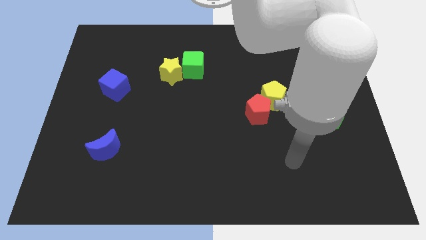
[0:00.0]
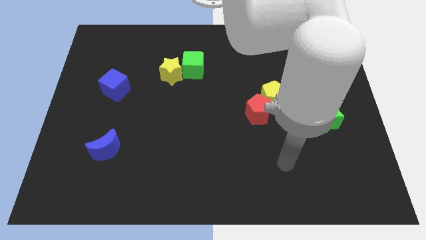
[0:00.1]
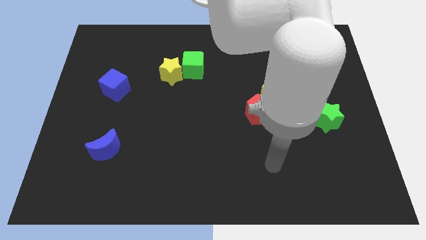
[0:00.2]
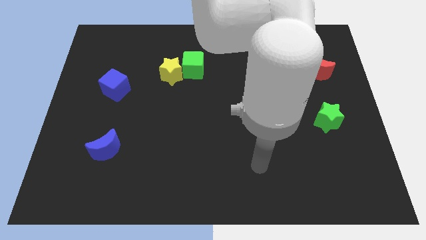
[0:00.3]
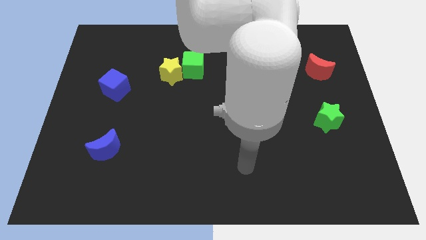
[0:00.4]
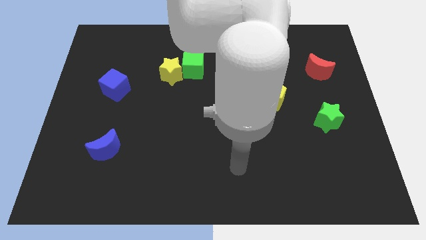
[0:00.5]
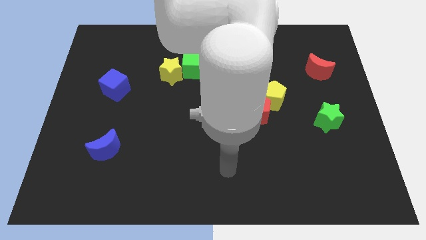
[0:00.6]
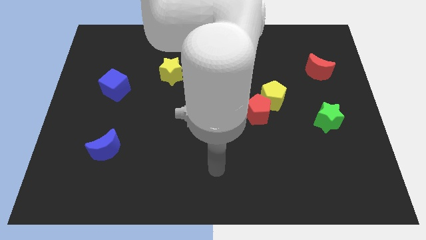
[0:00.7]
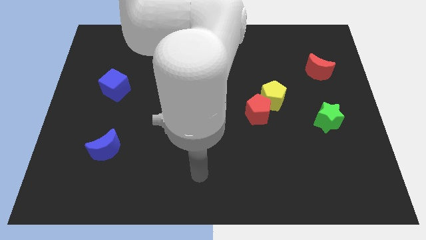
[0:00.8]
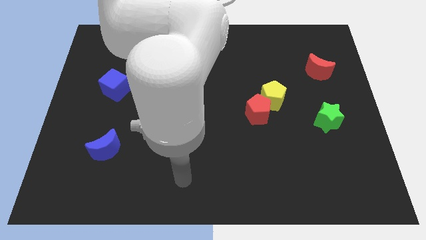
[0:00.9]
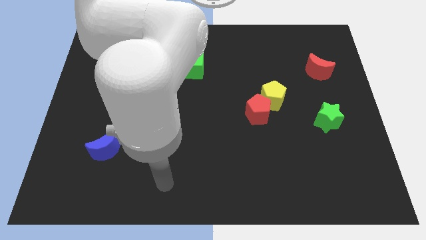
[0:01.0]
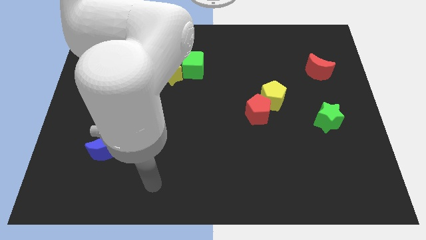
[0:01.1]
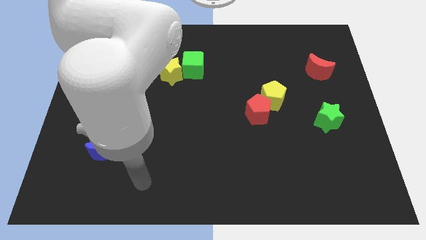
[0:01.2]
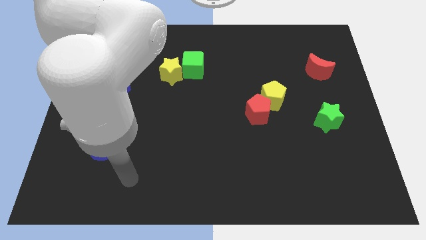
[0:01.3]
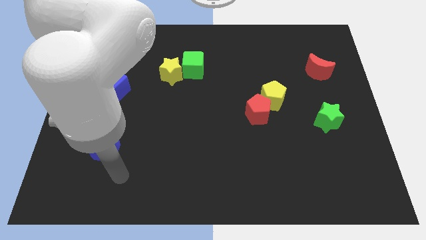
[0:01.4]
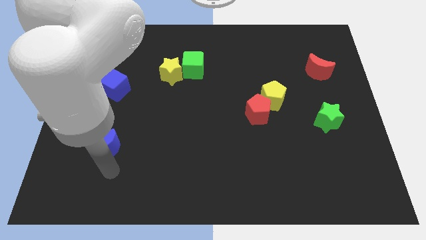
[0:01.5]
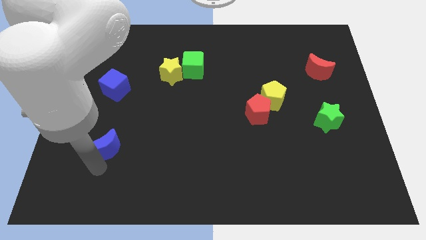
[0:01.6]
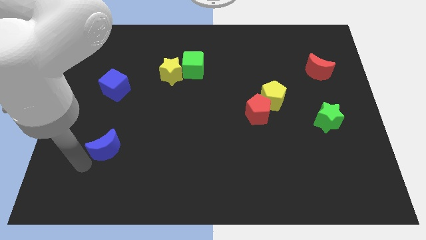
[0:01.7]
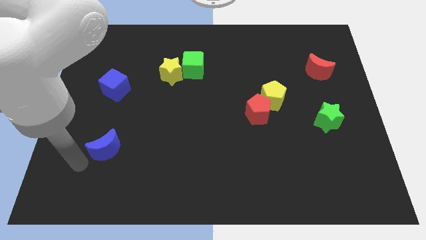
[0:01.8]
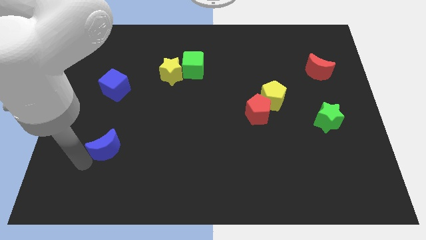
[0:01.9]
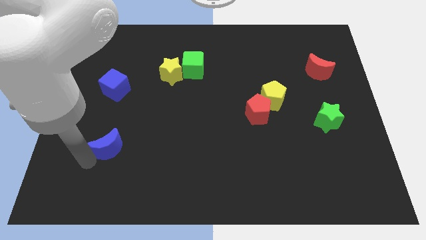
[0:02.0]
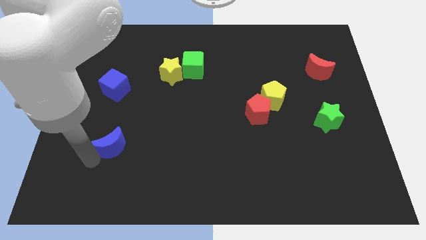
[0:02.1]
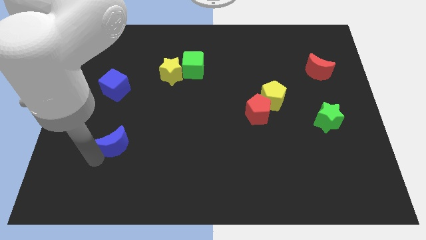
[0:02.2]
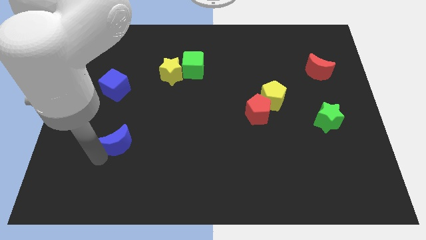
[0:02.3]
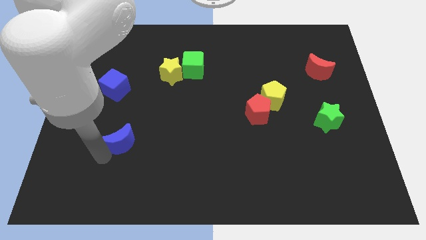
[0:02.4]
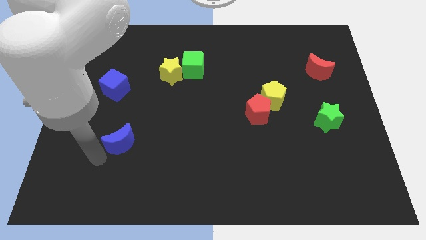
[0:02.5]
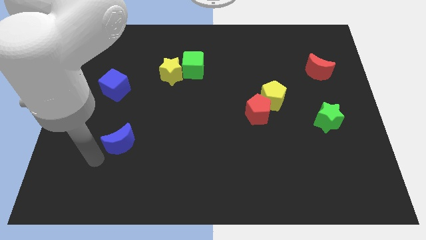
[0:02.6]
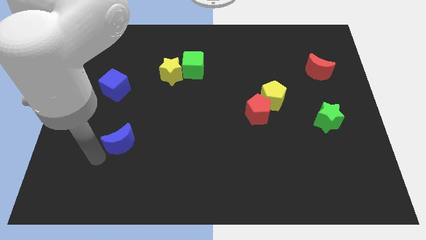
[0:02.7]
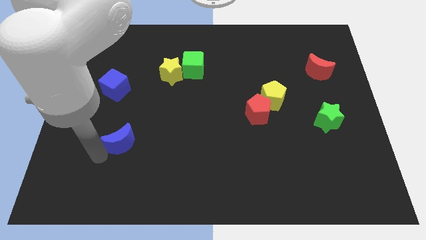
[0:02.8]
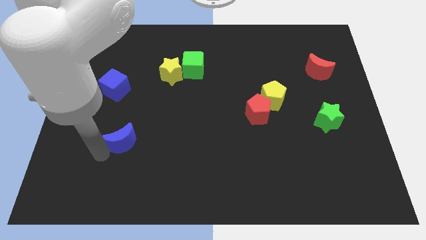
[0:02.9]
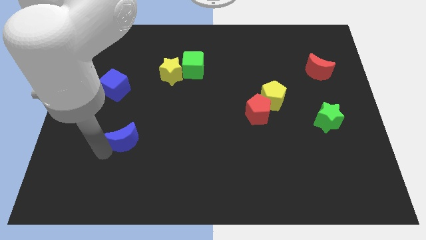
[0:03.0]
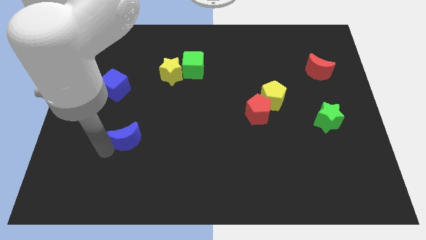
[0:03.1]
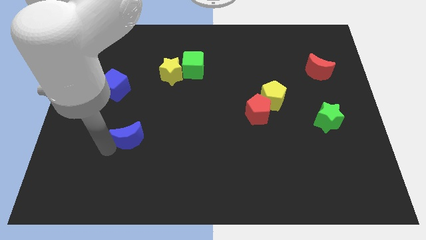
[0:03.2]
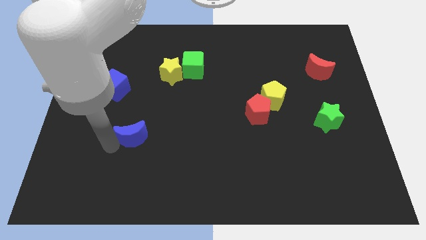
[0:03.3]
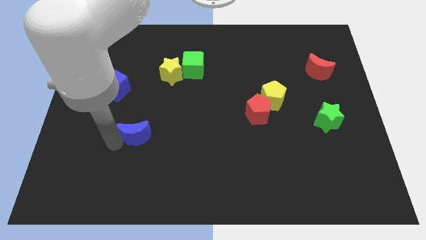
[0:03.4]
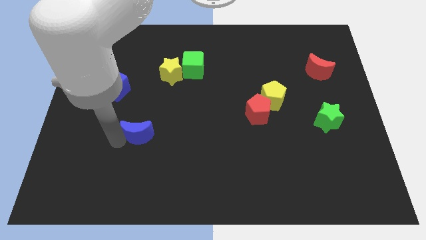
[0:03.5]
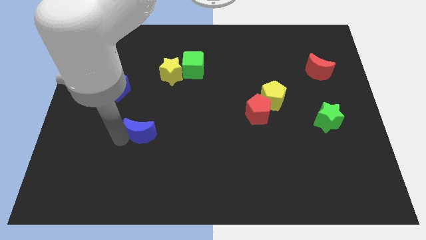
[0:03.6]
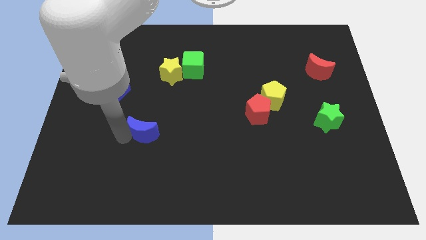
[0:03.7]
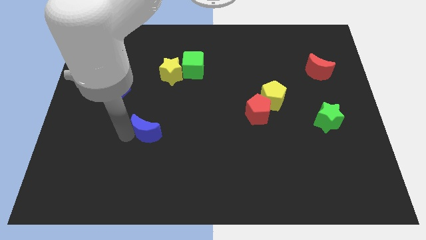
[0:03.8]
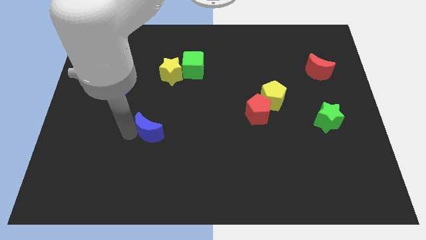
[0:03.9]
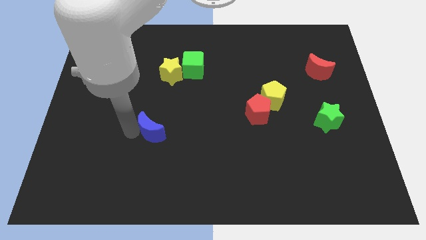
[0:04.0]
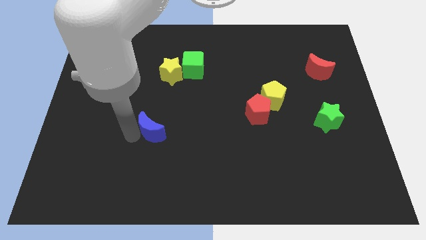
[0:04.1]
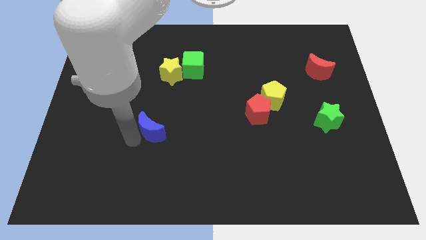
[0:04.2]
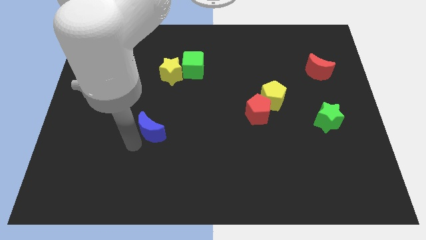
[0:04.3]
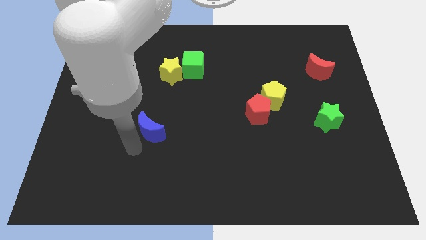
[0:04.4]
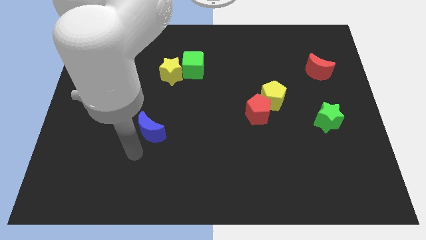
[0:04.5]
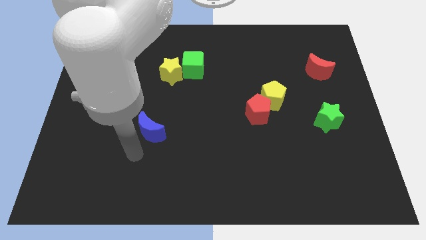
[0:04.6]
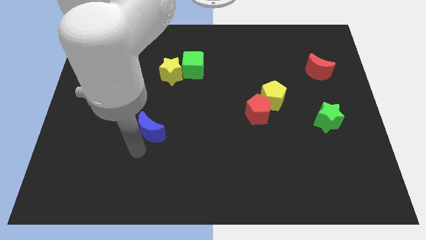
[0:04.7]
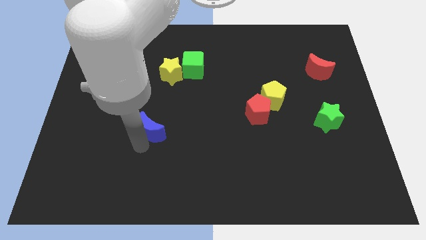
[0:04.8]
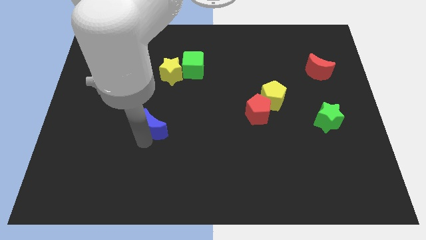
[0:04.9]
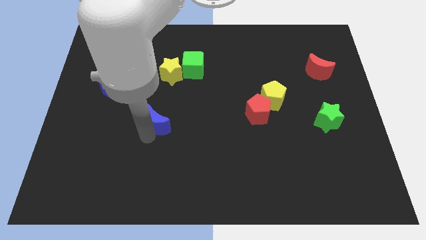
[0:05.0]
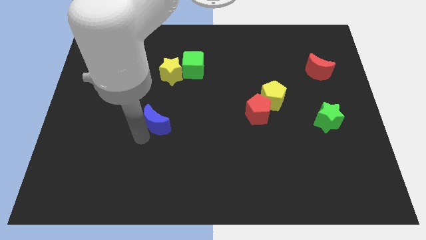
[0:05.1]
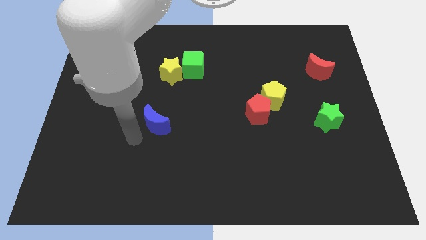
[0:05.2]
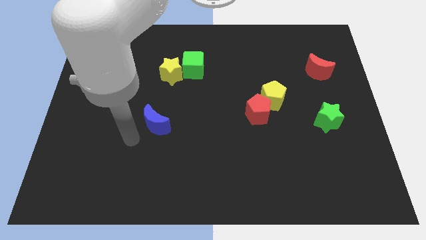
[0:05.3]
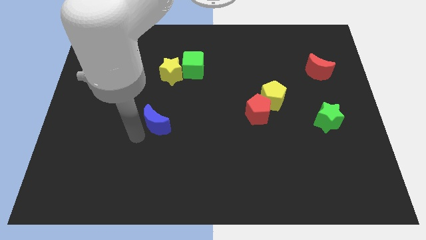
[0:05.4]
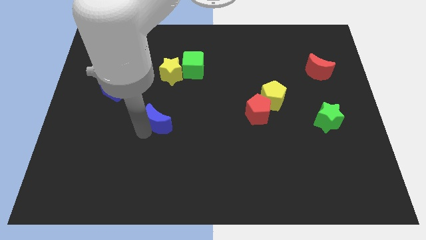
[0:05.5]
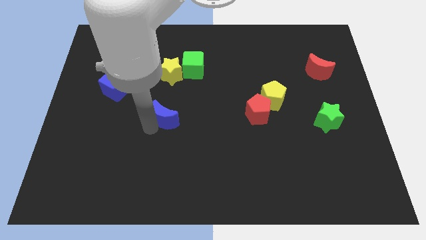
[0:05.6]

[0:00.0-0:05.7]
put the blue moon to the middle of the board
